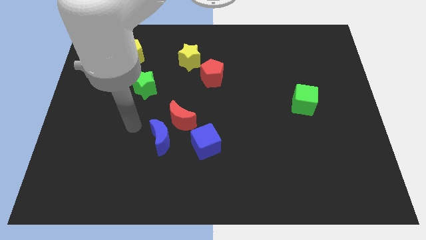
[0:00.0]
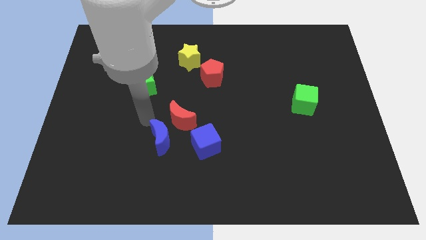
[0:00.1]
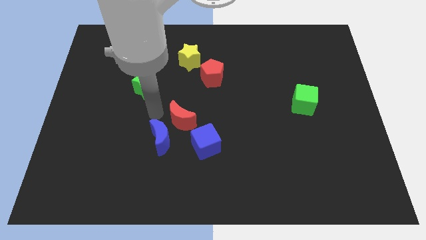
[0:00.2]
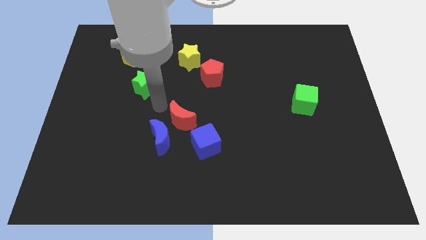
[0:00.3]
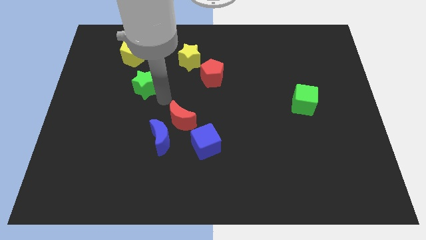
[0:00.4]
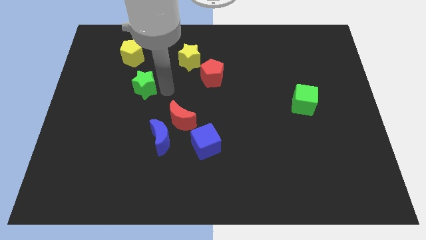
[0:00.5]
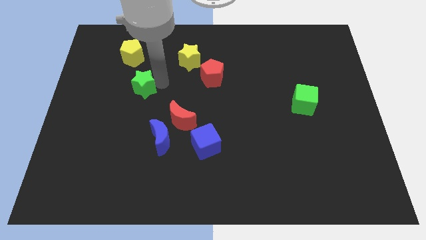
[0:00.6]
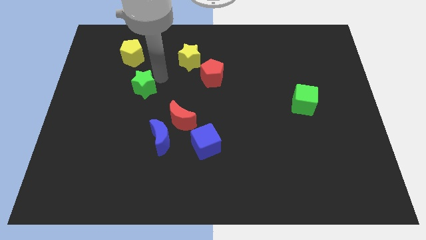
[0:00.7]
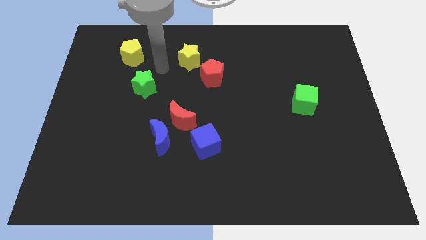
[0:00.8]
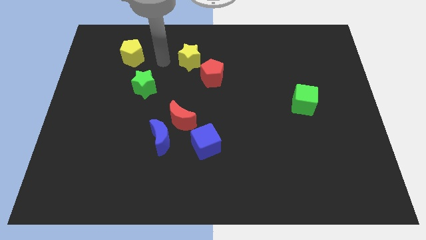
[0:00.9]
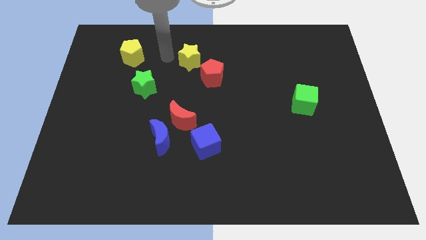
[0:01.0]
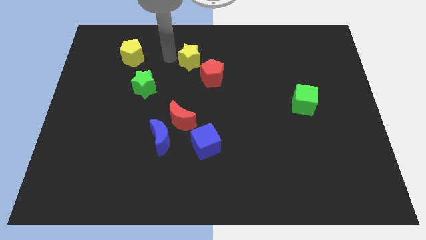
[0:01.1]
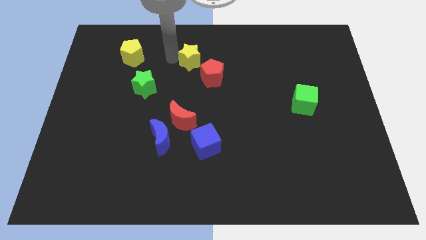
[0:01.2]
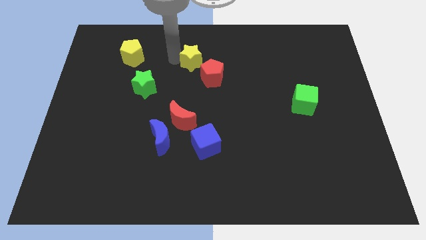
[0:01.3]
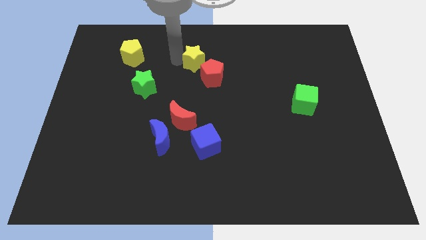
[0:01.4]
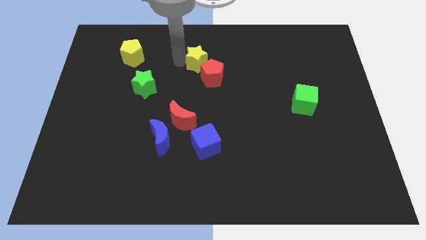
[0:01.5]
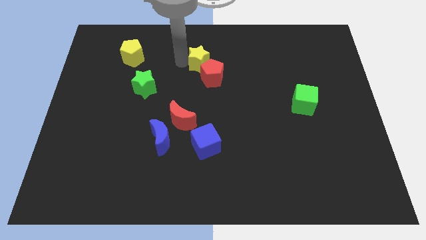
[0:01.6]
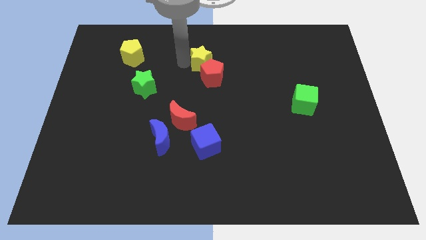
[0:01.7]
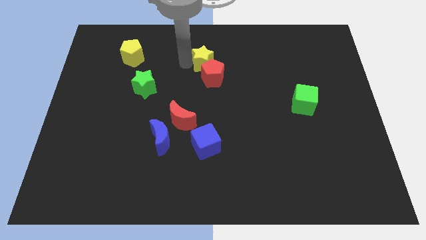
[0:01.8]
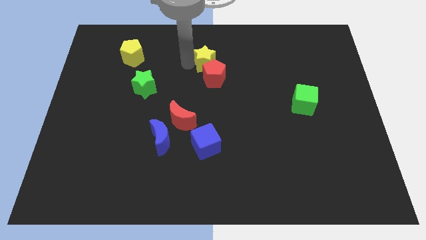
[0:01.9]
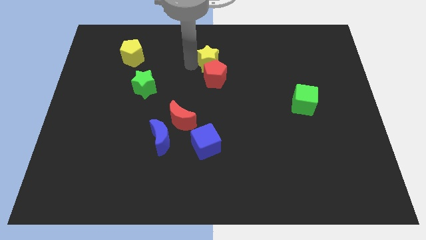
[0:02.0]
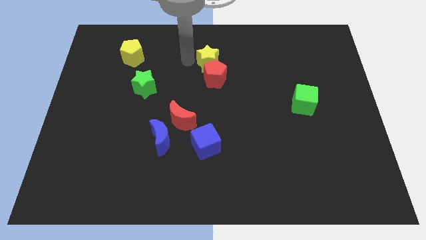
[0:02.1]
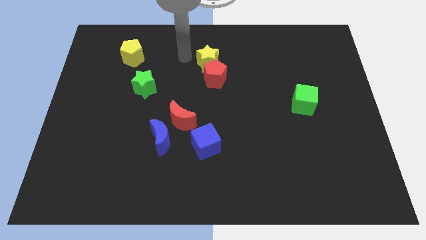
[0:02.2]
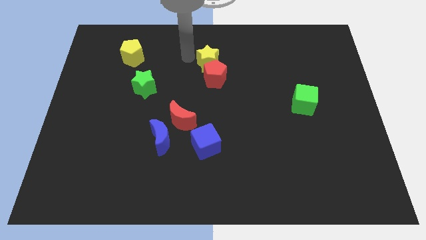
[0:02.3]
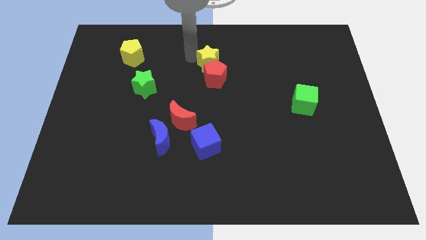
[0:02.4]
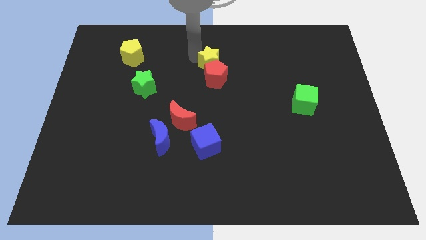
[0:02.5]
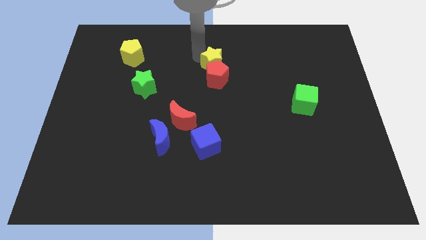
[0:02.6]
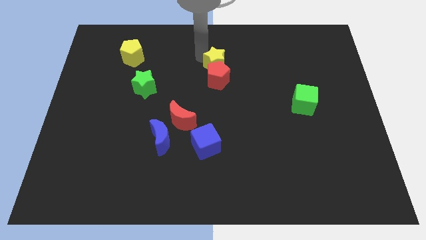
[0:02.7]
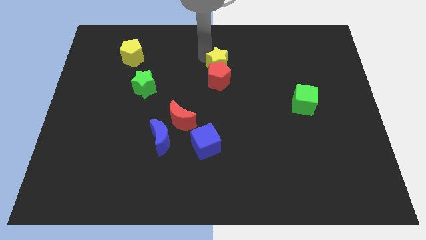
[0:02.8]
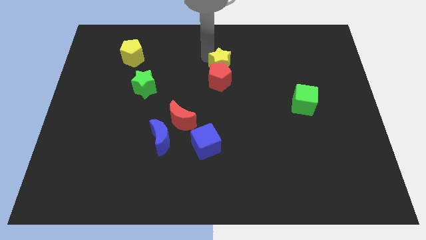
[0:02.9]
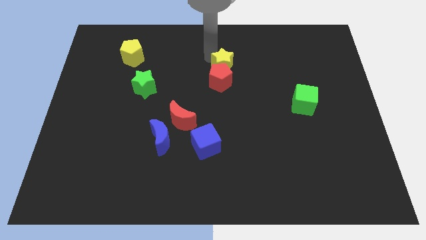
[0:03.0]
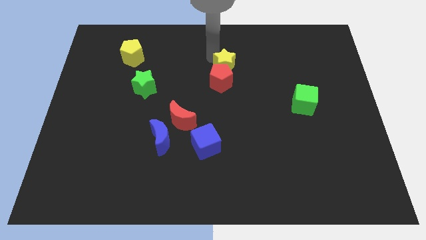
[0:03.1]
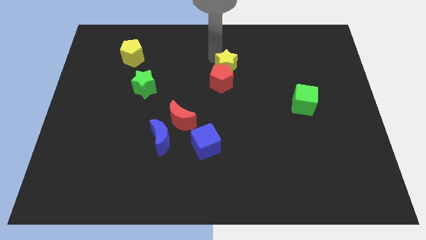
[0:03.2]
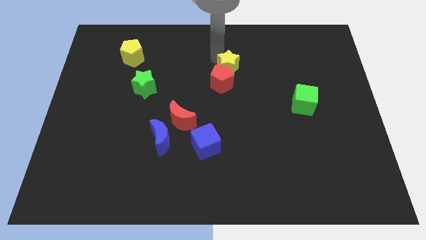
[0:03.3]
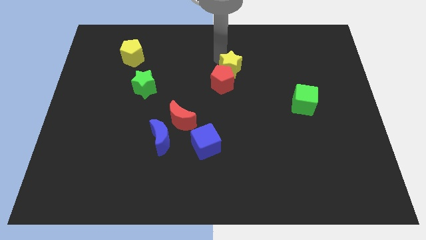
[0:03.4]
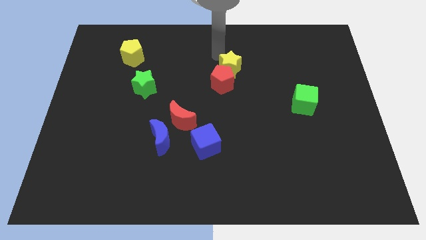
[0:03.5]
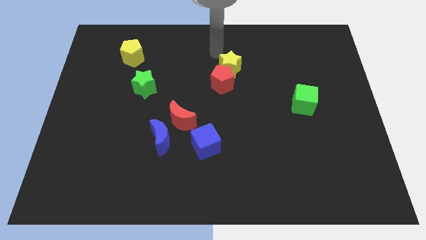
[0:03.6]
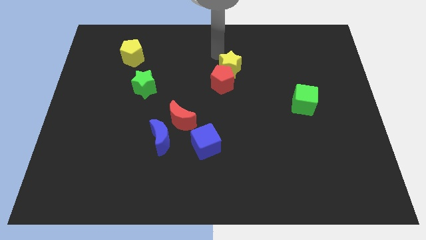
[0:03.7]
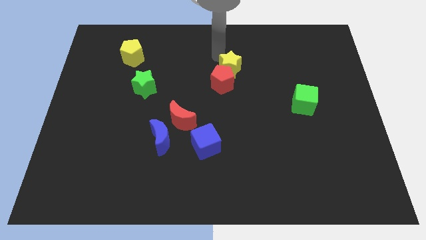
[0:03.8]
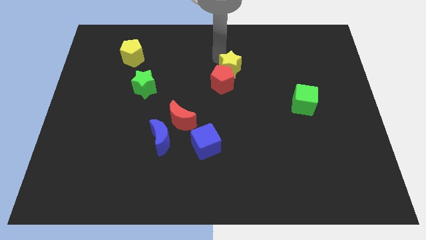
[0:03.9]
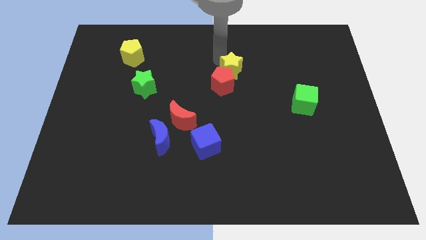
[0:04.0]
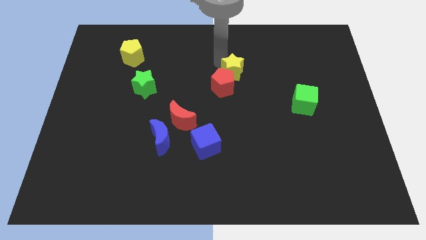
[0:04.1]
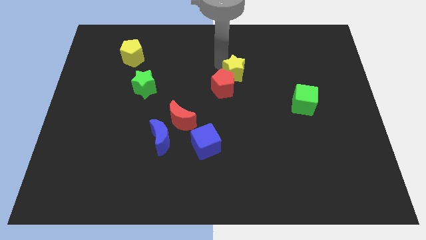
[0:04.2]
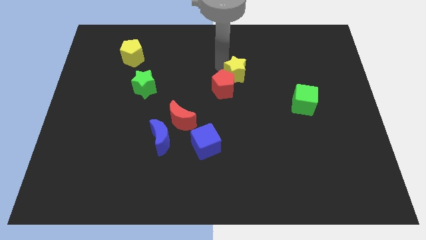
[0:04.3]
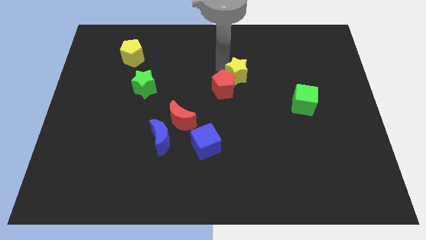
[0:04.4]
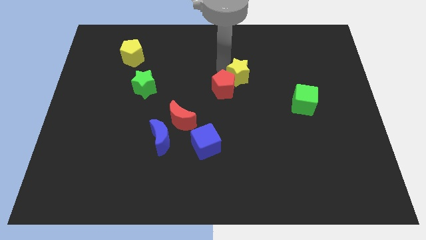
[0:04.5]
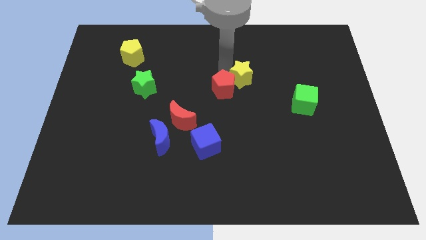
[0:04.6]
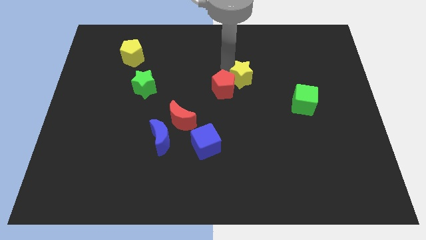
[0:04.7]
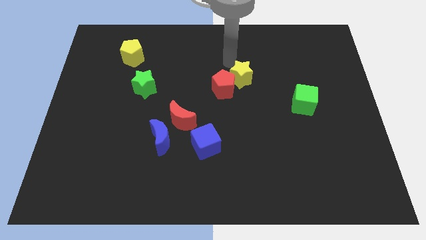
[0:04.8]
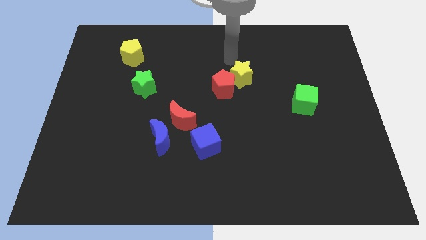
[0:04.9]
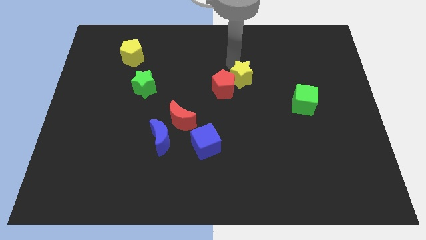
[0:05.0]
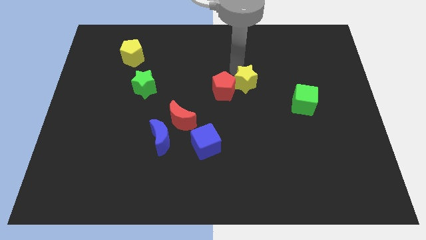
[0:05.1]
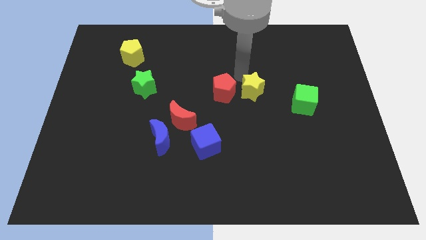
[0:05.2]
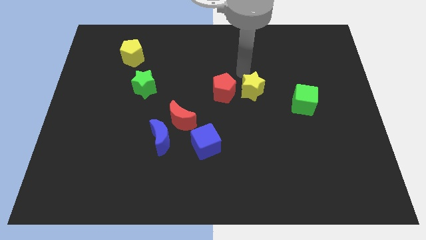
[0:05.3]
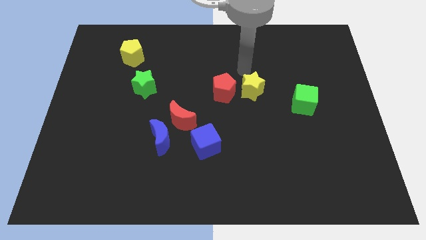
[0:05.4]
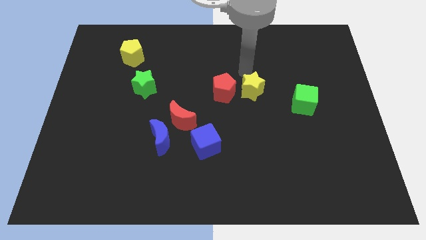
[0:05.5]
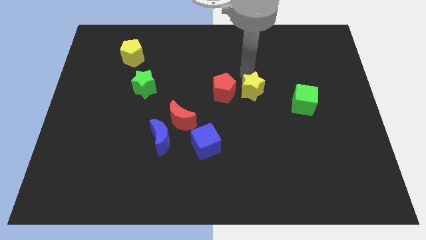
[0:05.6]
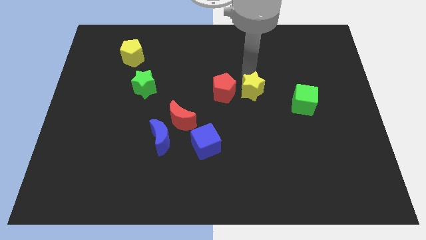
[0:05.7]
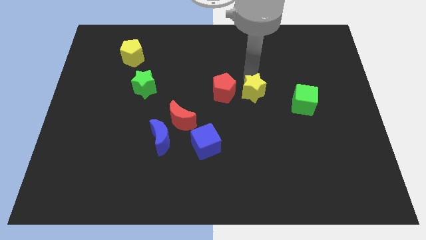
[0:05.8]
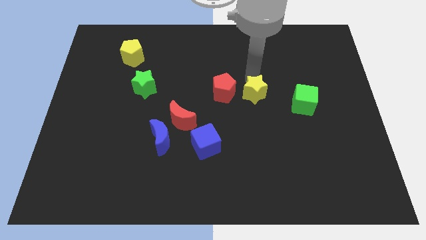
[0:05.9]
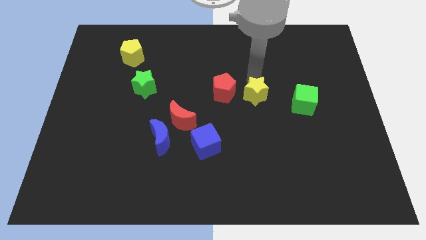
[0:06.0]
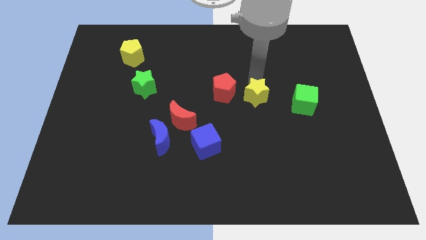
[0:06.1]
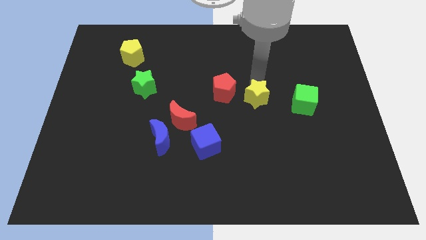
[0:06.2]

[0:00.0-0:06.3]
push the yellow star downwards and to the right diagonally

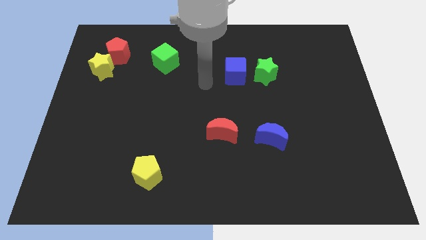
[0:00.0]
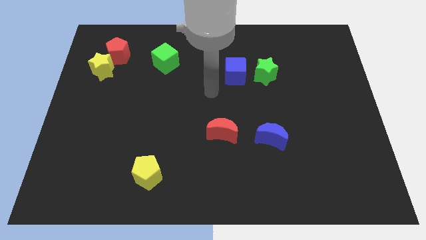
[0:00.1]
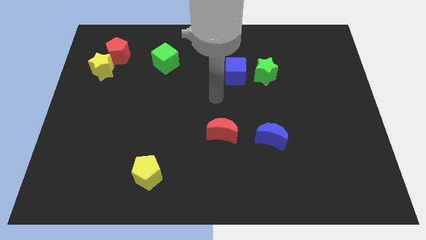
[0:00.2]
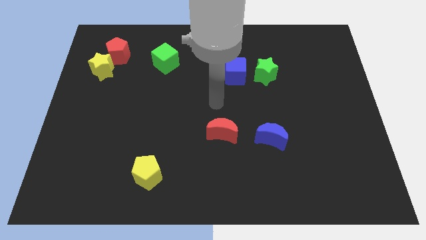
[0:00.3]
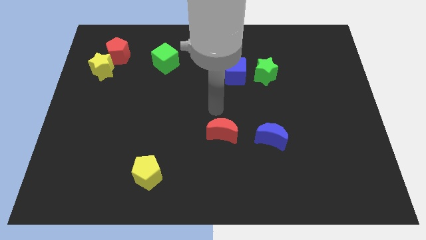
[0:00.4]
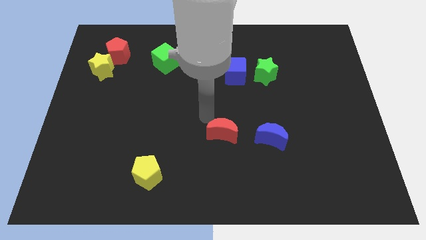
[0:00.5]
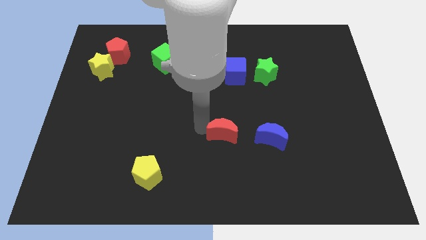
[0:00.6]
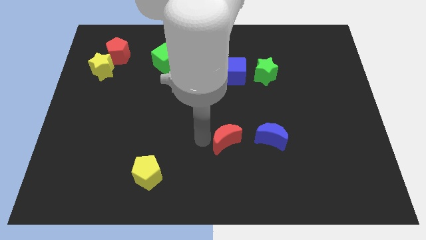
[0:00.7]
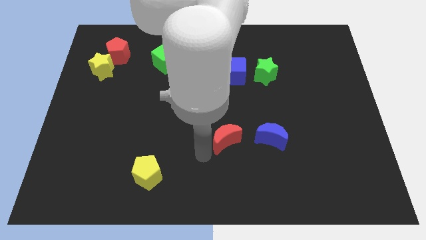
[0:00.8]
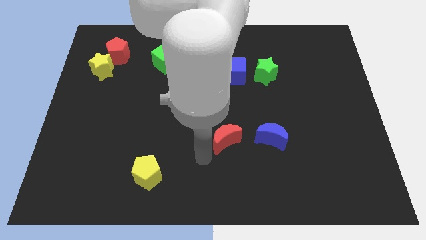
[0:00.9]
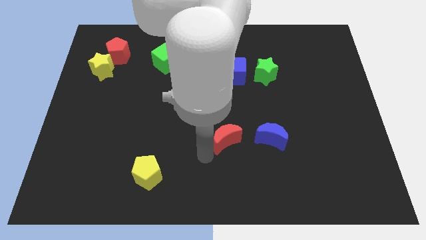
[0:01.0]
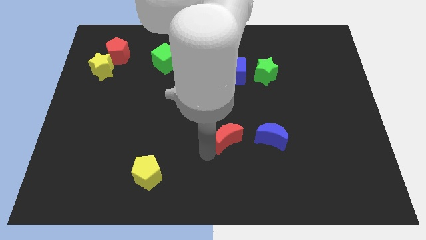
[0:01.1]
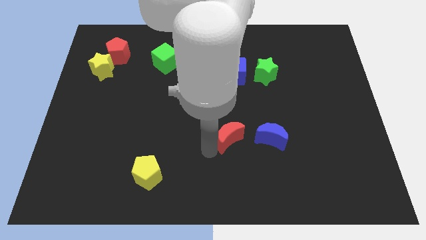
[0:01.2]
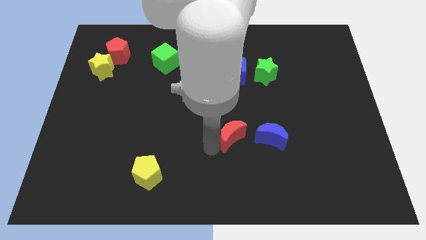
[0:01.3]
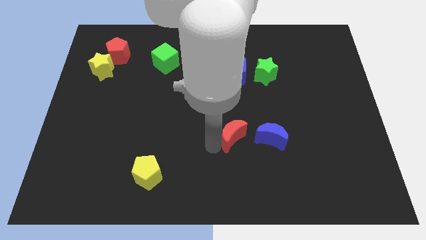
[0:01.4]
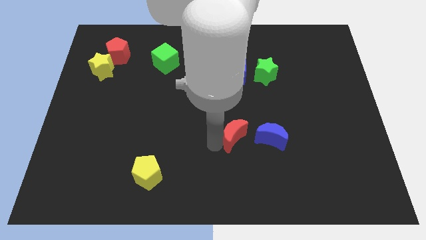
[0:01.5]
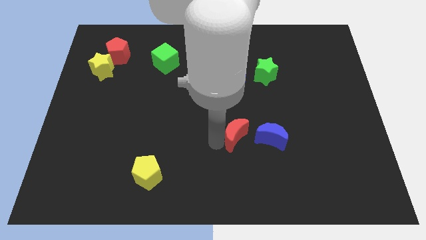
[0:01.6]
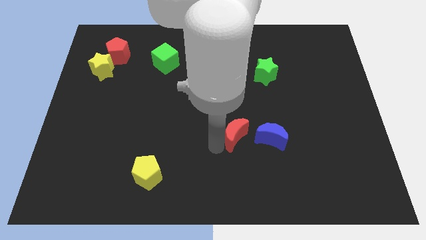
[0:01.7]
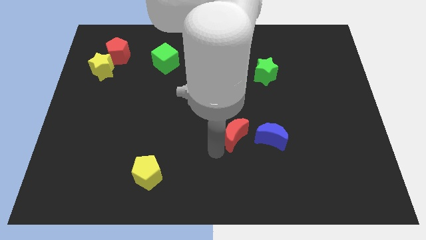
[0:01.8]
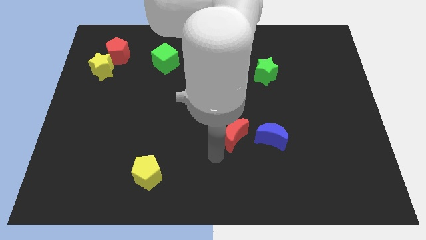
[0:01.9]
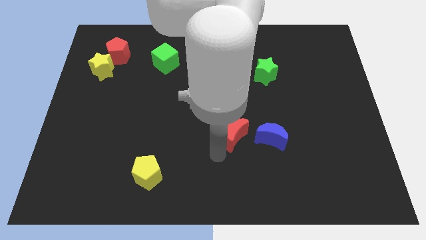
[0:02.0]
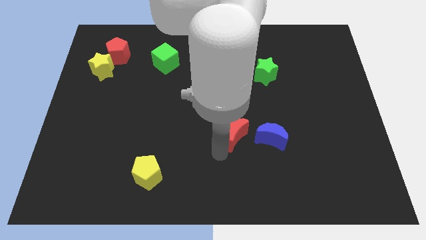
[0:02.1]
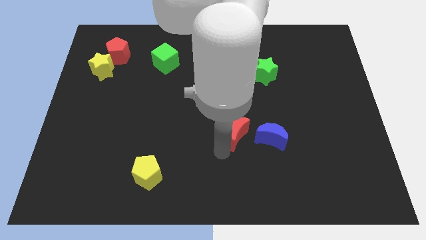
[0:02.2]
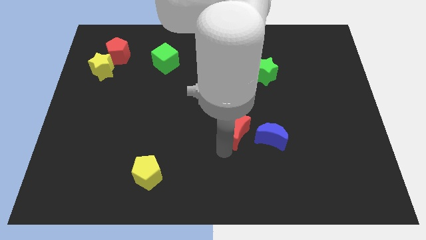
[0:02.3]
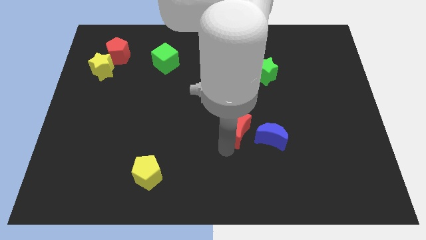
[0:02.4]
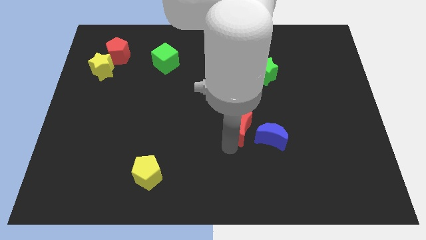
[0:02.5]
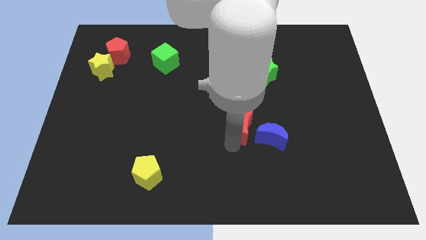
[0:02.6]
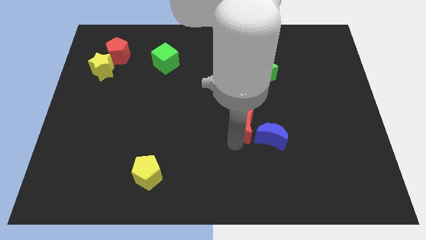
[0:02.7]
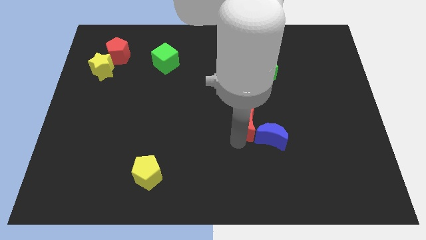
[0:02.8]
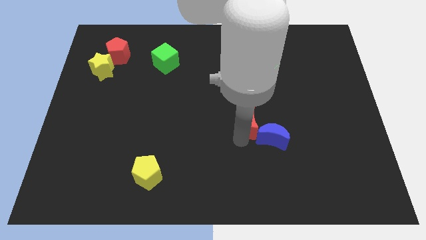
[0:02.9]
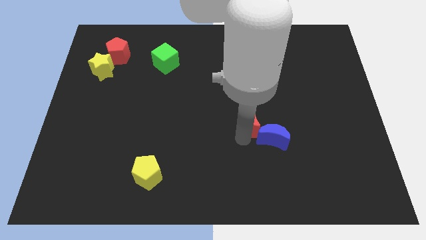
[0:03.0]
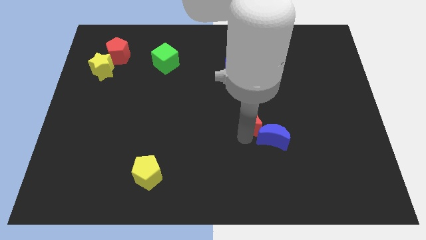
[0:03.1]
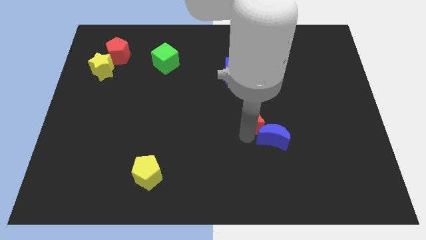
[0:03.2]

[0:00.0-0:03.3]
move the red moon a little up and to the right
